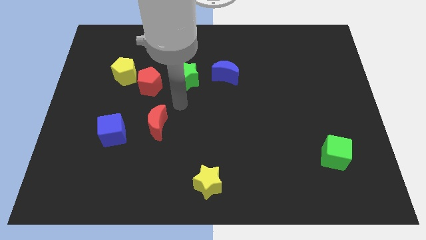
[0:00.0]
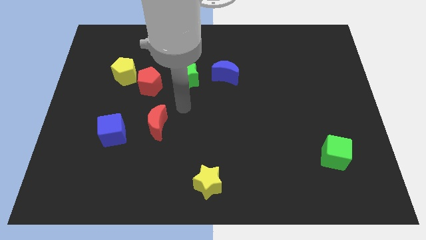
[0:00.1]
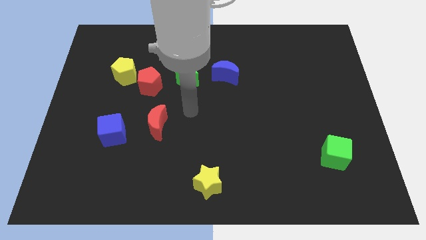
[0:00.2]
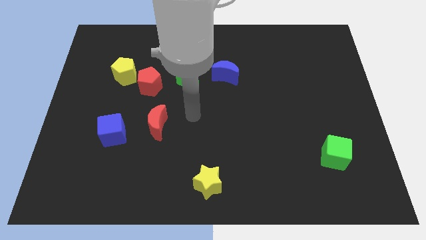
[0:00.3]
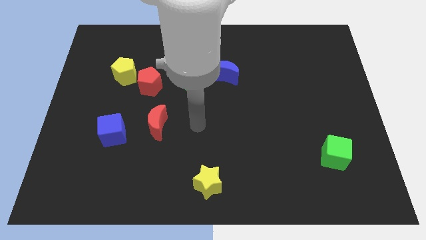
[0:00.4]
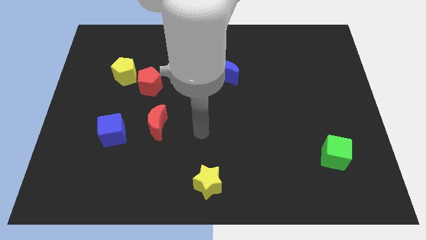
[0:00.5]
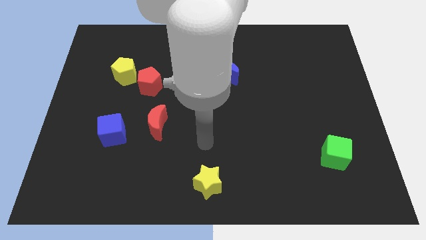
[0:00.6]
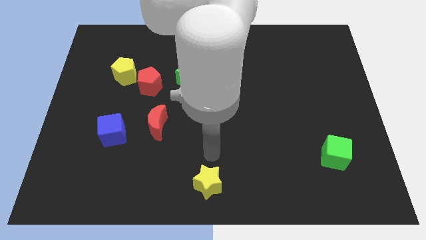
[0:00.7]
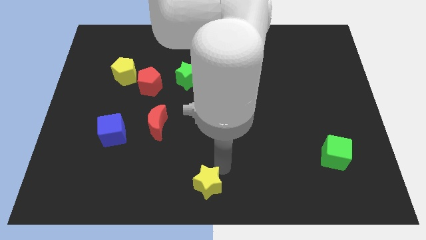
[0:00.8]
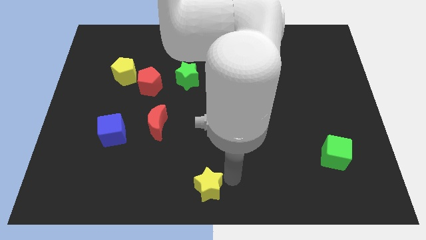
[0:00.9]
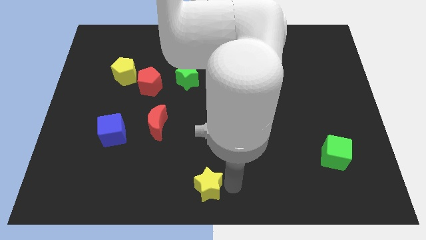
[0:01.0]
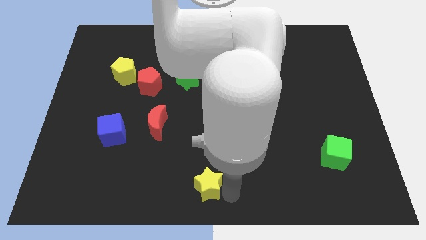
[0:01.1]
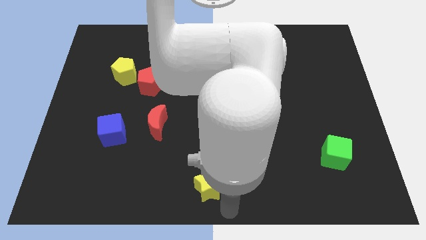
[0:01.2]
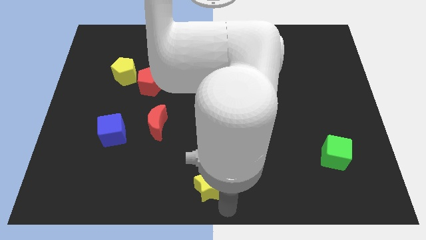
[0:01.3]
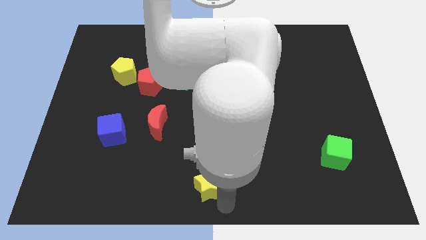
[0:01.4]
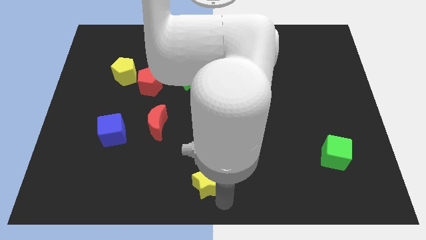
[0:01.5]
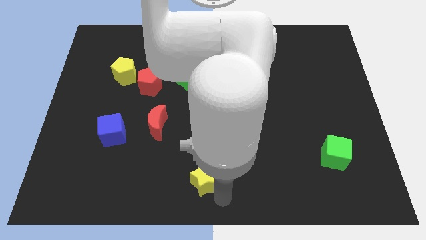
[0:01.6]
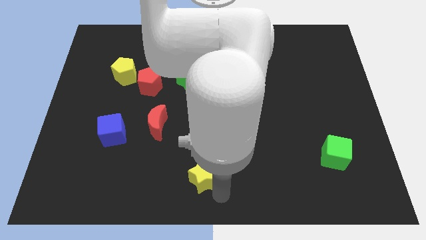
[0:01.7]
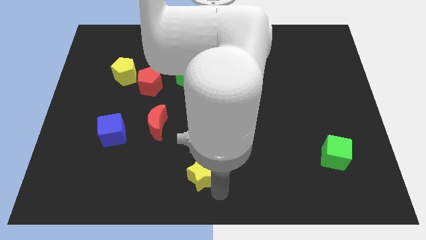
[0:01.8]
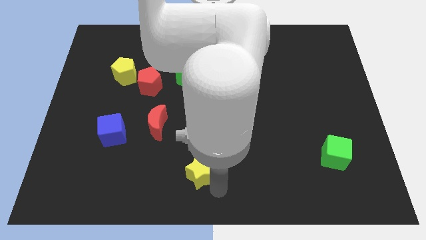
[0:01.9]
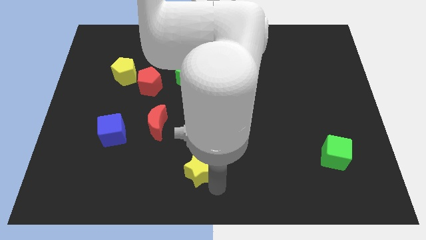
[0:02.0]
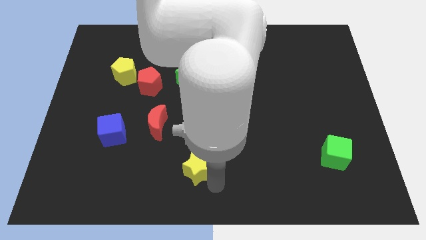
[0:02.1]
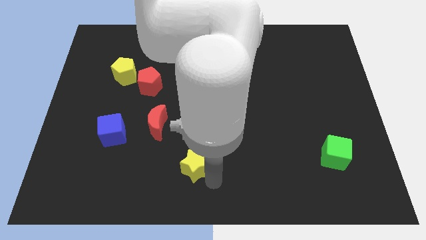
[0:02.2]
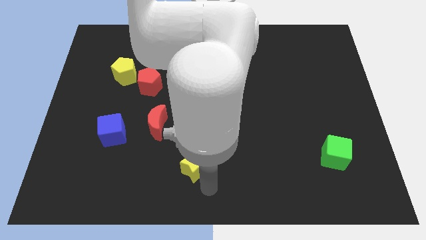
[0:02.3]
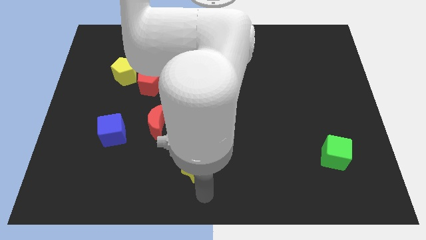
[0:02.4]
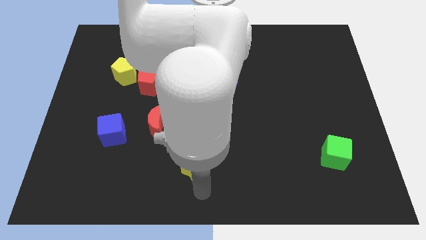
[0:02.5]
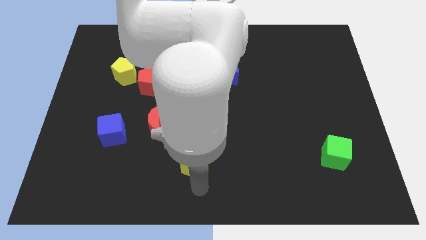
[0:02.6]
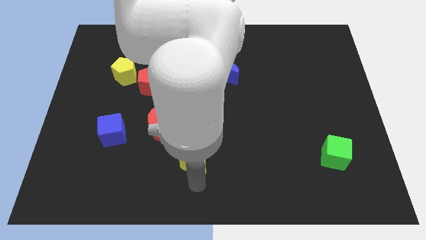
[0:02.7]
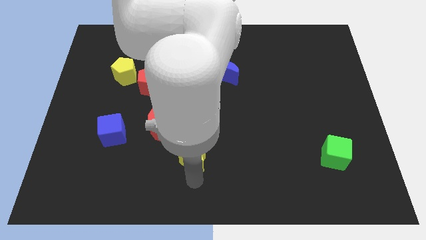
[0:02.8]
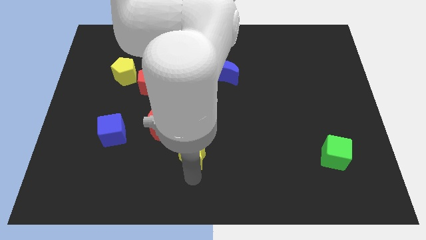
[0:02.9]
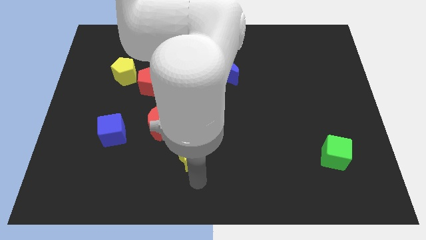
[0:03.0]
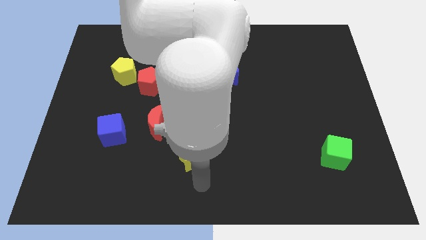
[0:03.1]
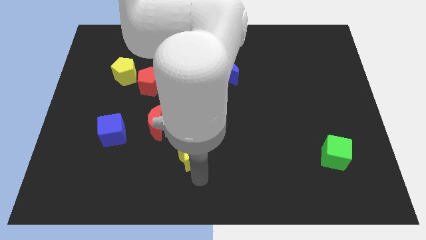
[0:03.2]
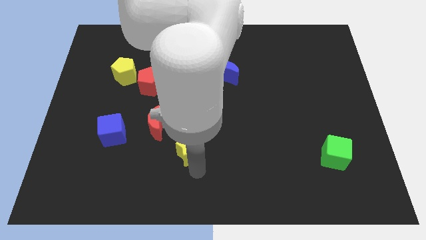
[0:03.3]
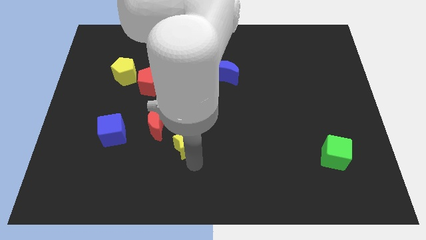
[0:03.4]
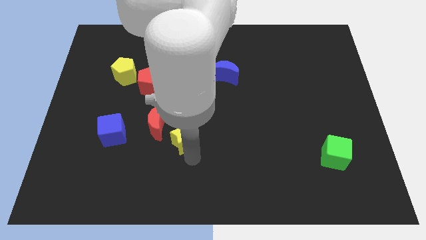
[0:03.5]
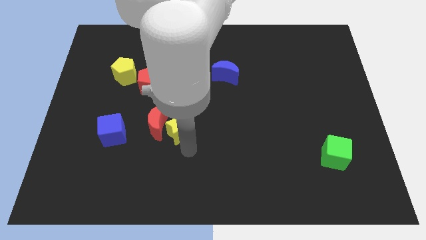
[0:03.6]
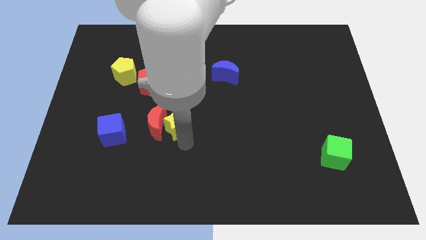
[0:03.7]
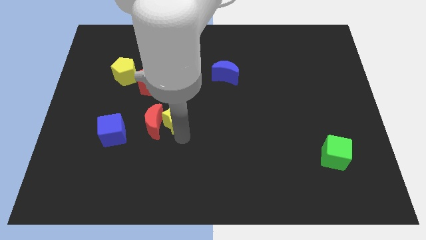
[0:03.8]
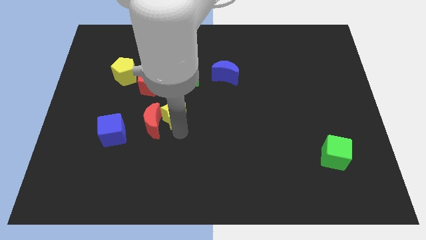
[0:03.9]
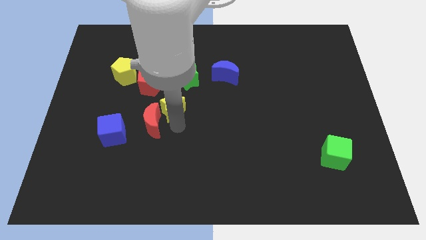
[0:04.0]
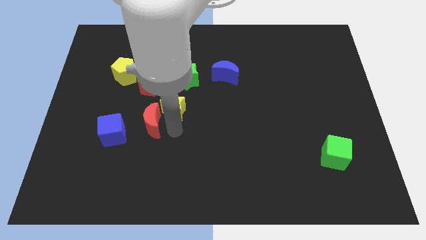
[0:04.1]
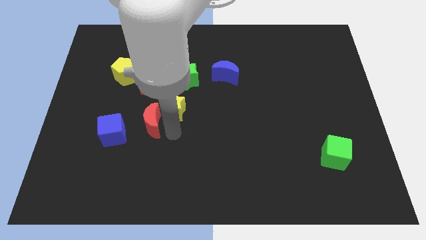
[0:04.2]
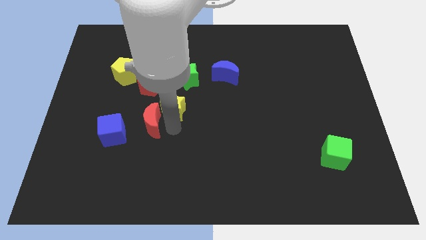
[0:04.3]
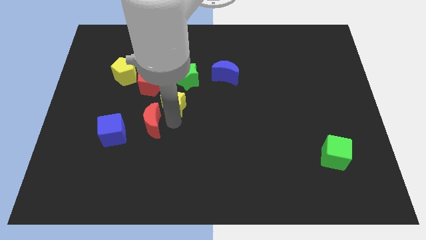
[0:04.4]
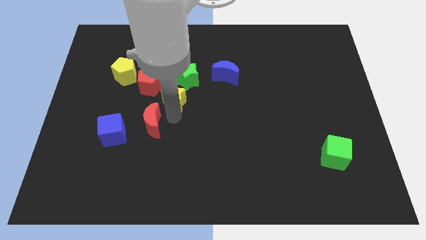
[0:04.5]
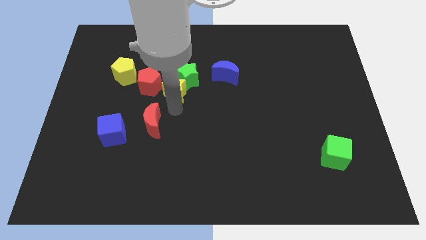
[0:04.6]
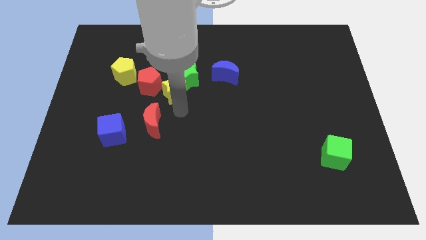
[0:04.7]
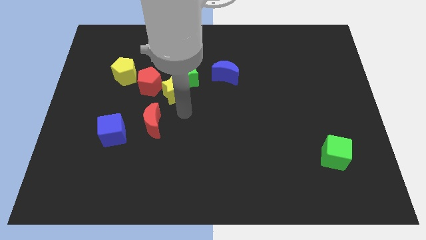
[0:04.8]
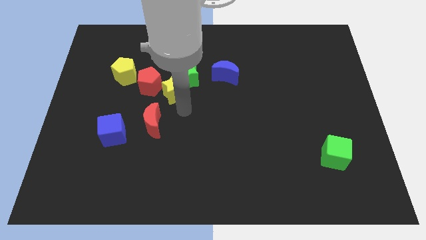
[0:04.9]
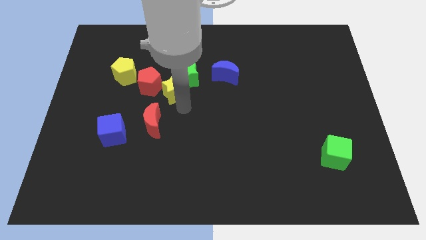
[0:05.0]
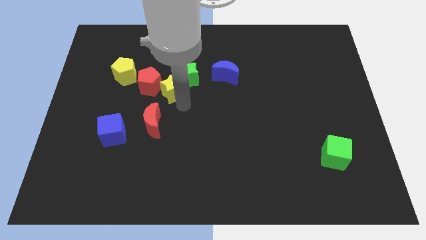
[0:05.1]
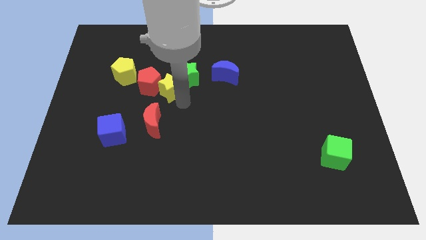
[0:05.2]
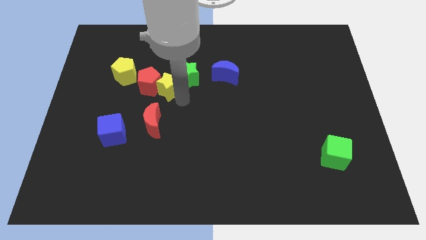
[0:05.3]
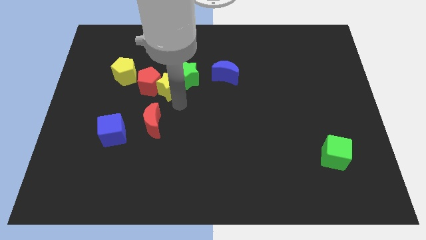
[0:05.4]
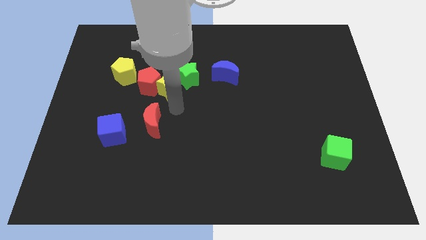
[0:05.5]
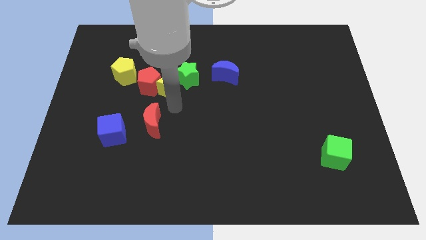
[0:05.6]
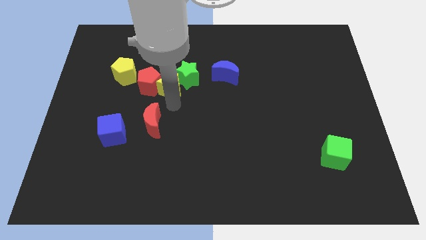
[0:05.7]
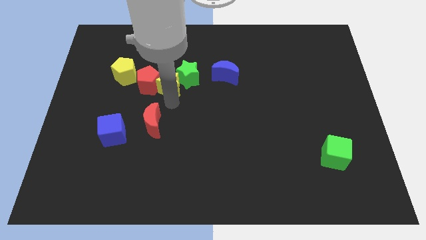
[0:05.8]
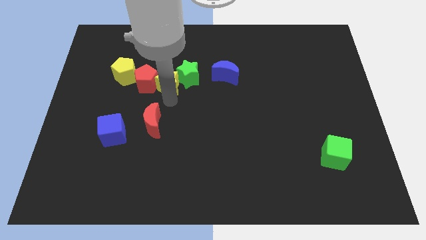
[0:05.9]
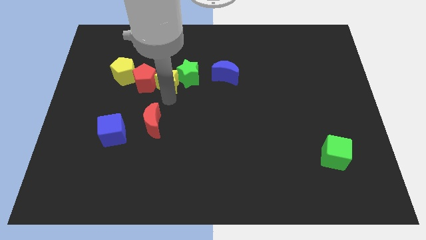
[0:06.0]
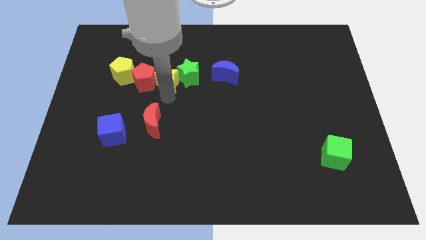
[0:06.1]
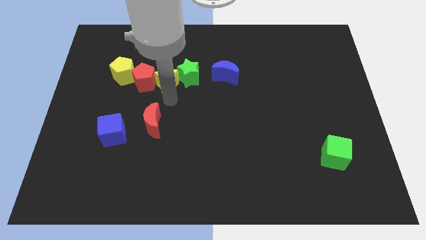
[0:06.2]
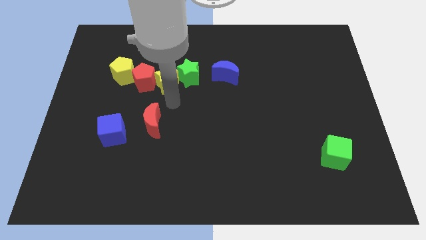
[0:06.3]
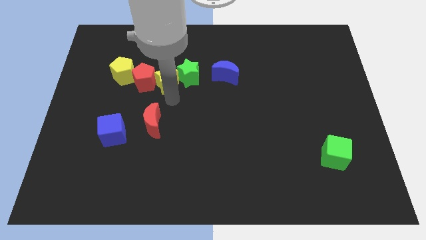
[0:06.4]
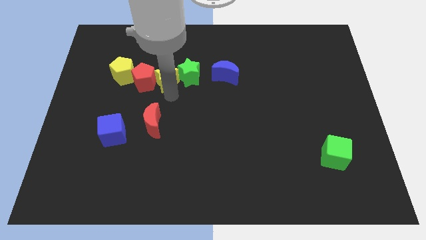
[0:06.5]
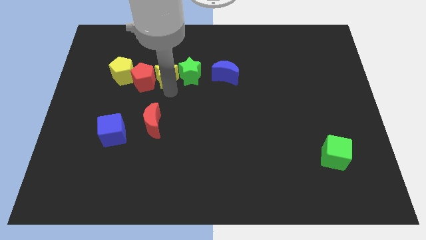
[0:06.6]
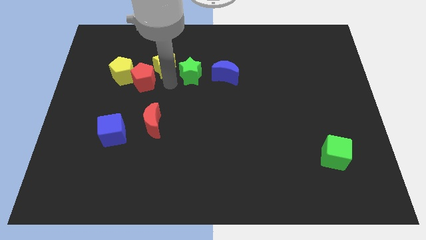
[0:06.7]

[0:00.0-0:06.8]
push the yellow star above the red pentagon
